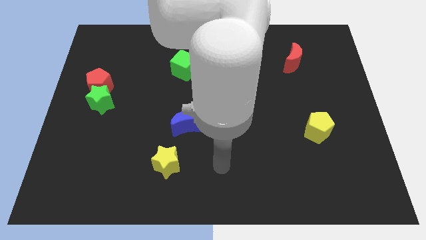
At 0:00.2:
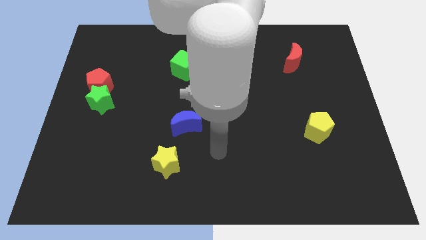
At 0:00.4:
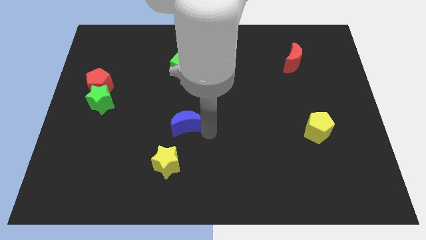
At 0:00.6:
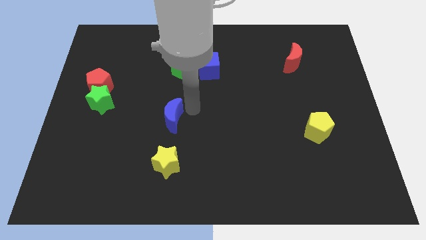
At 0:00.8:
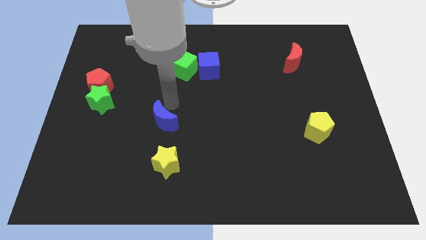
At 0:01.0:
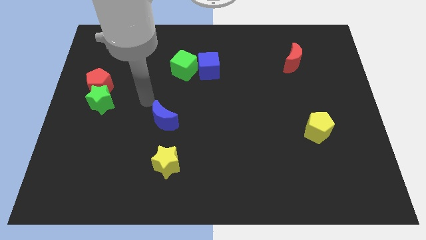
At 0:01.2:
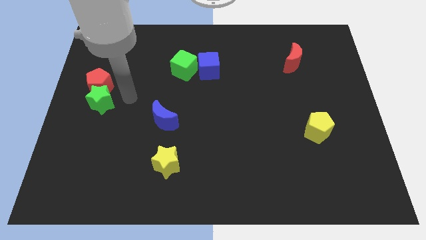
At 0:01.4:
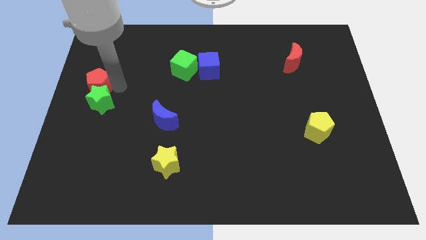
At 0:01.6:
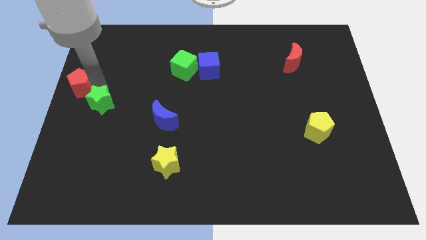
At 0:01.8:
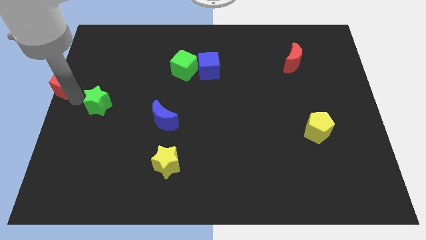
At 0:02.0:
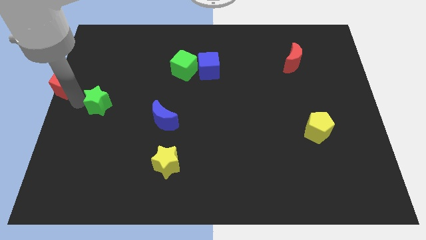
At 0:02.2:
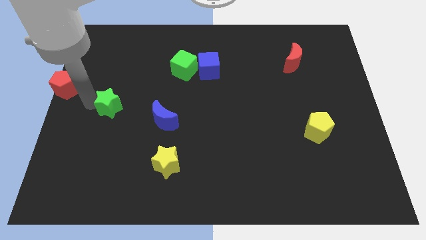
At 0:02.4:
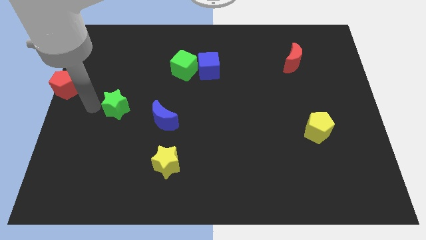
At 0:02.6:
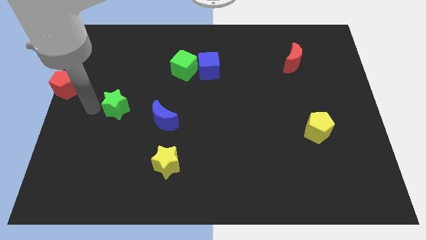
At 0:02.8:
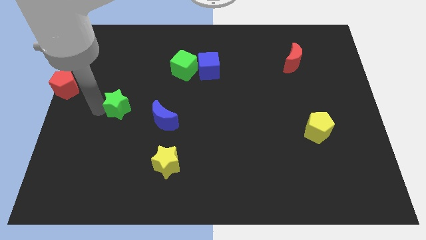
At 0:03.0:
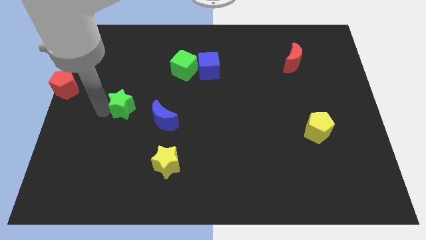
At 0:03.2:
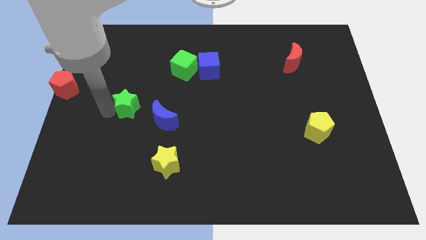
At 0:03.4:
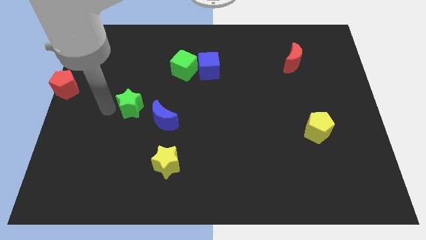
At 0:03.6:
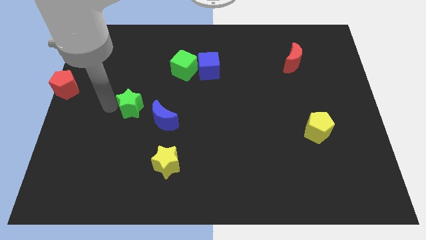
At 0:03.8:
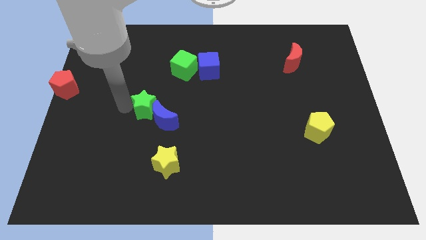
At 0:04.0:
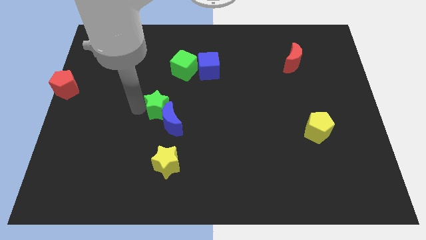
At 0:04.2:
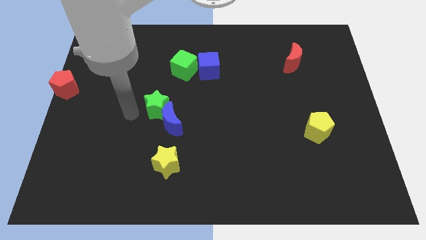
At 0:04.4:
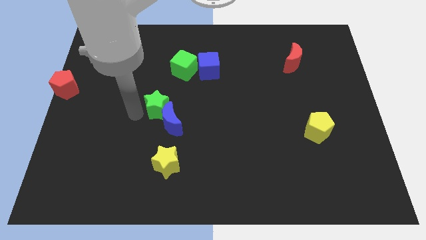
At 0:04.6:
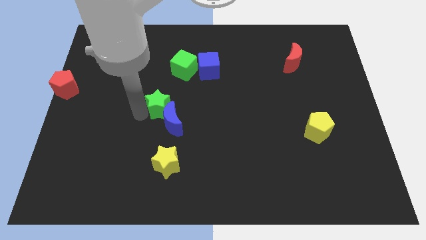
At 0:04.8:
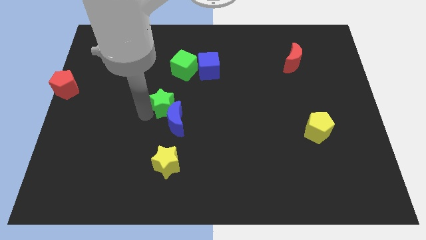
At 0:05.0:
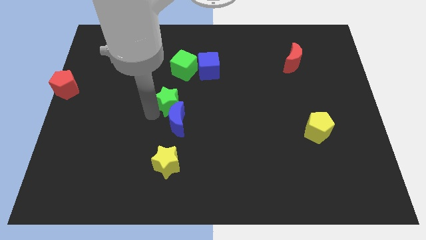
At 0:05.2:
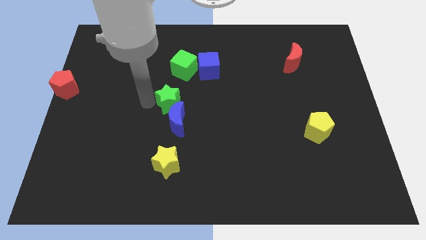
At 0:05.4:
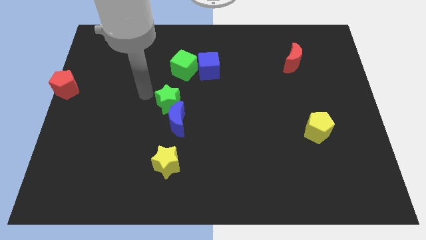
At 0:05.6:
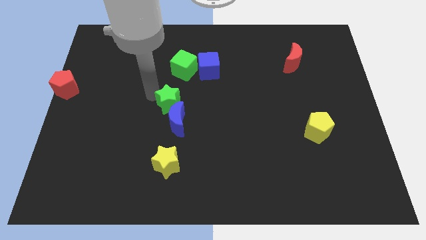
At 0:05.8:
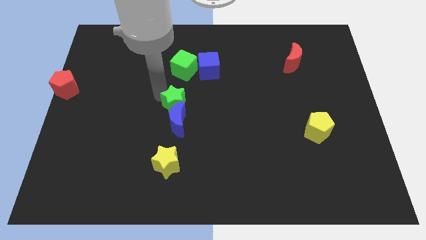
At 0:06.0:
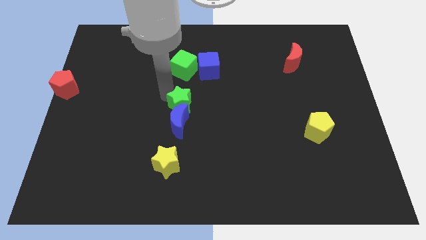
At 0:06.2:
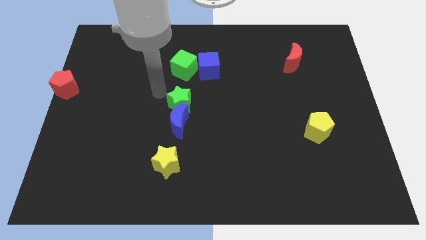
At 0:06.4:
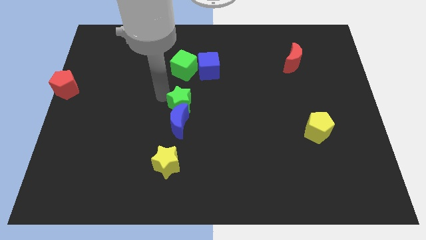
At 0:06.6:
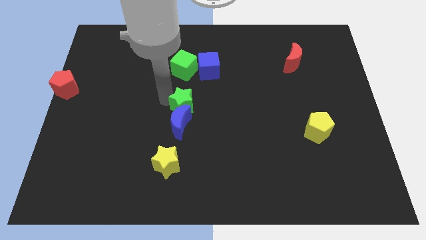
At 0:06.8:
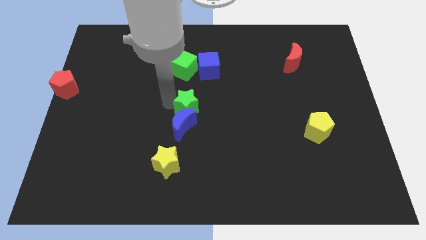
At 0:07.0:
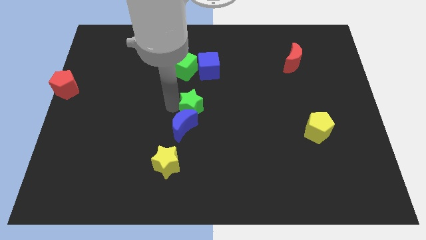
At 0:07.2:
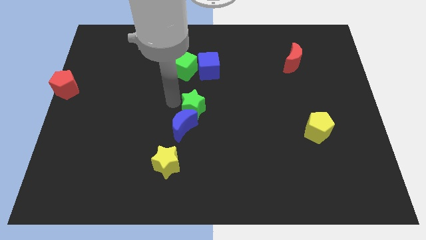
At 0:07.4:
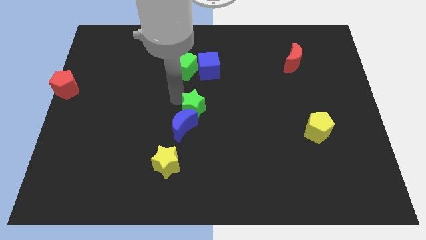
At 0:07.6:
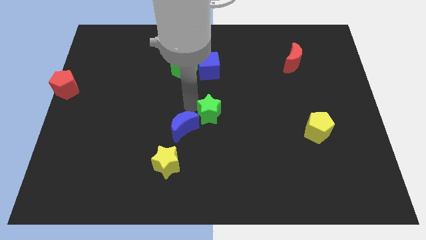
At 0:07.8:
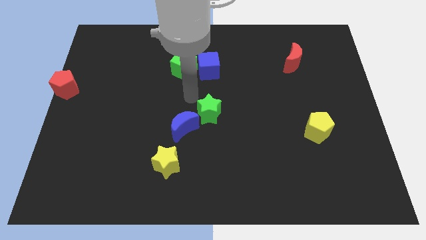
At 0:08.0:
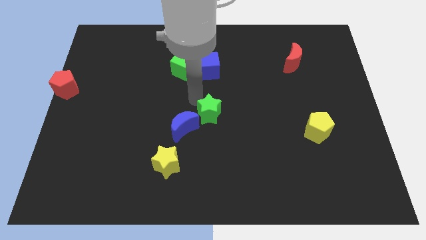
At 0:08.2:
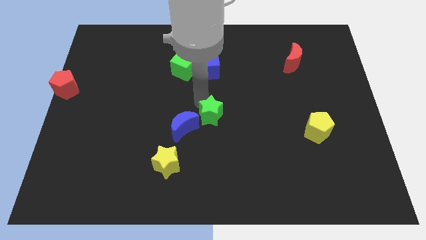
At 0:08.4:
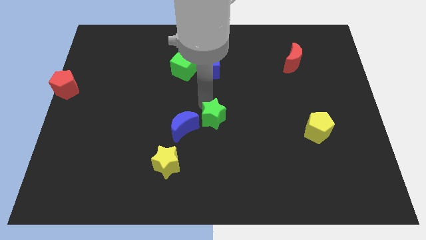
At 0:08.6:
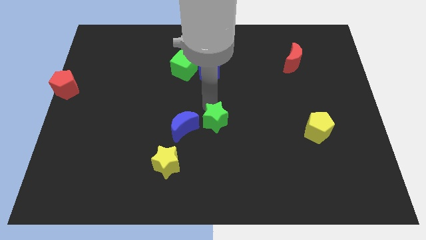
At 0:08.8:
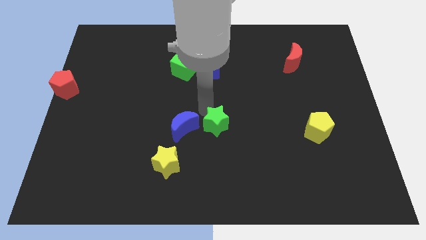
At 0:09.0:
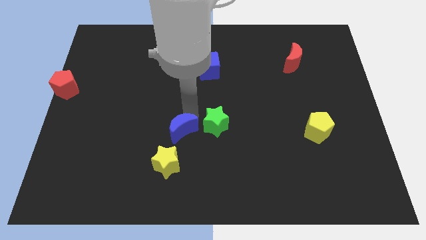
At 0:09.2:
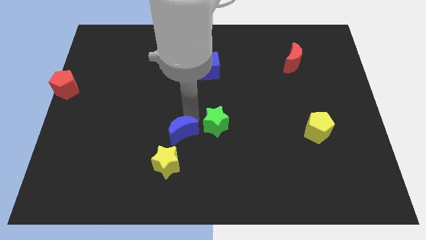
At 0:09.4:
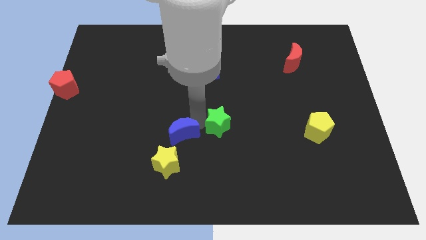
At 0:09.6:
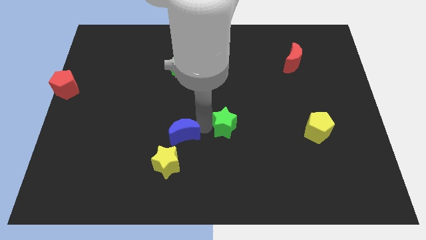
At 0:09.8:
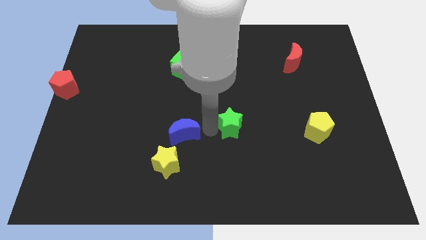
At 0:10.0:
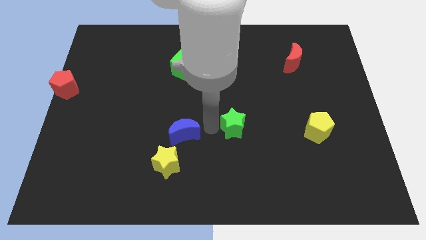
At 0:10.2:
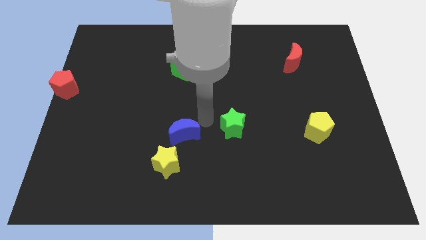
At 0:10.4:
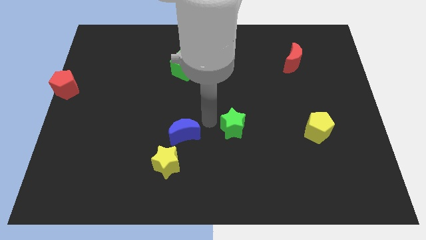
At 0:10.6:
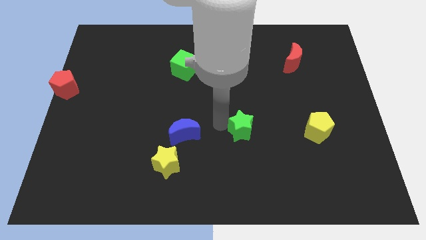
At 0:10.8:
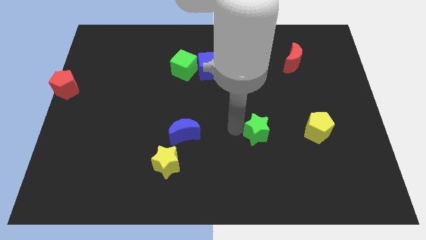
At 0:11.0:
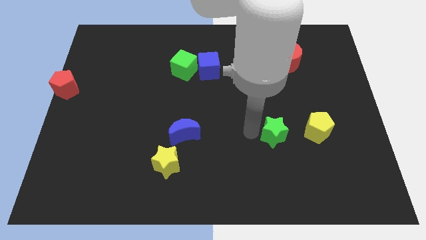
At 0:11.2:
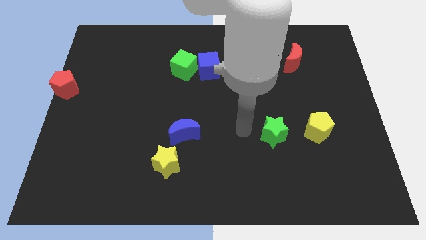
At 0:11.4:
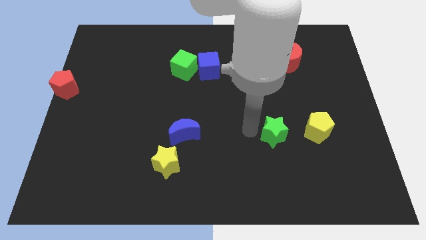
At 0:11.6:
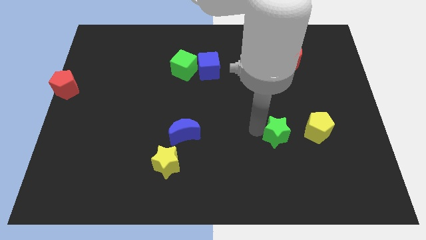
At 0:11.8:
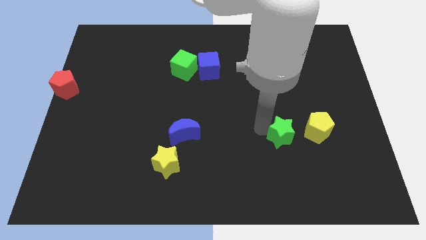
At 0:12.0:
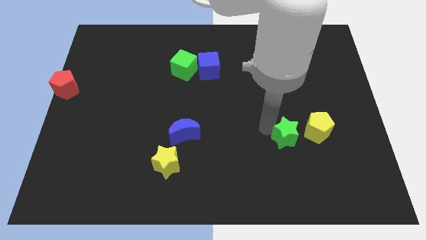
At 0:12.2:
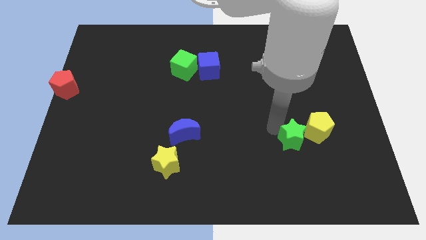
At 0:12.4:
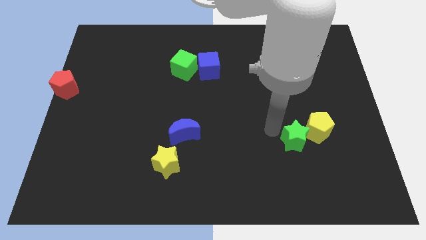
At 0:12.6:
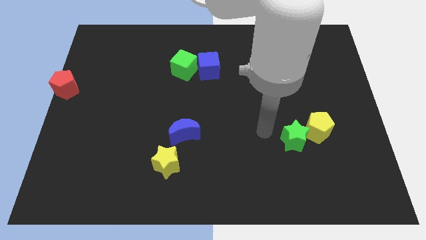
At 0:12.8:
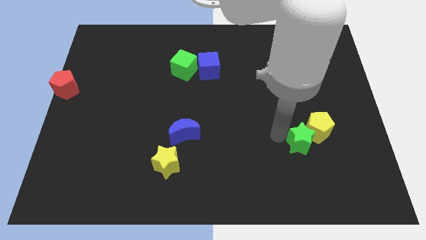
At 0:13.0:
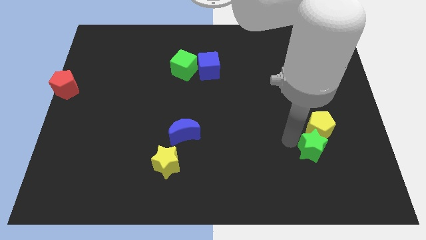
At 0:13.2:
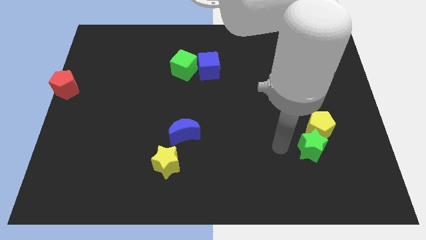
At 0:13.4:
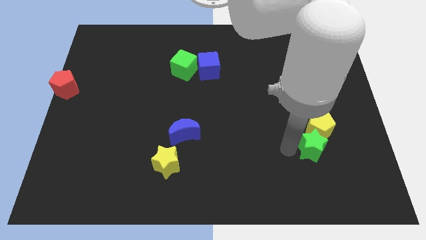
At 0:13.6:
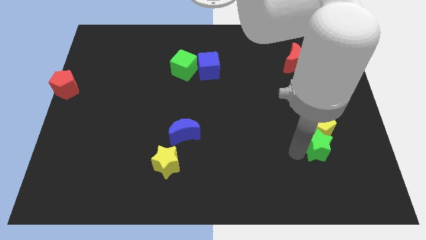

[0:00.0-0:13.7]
move the green star to the bottom right side of the yellow pentagon

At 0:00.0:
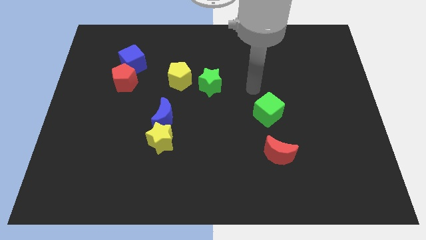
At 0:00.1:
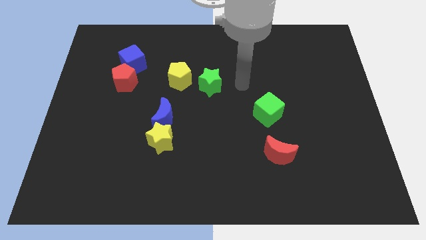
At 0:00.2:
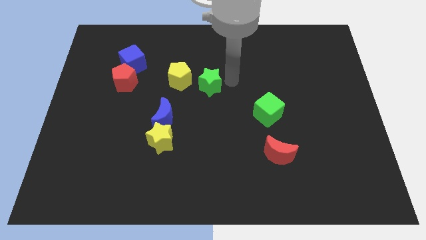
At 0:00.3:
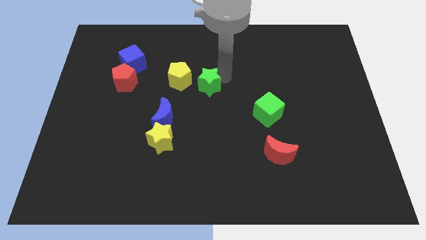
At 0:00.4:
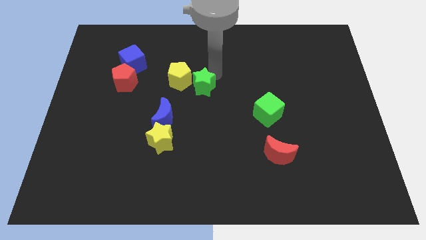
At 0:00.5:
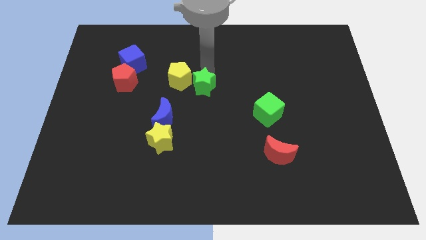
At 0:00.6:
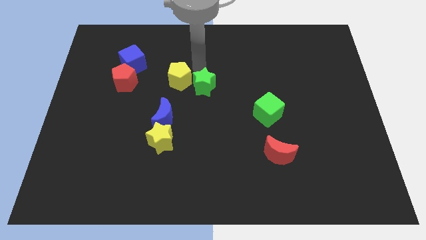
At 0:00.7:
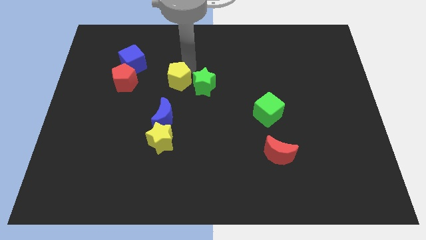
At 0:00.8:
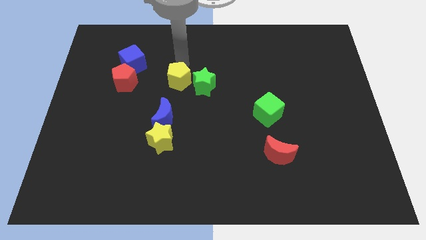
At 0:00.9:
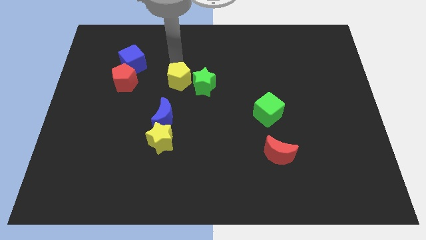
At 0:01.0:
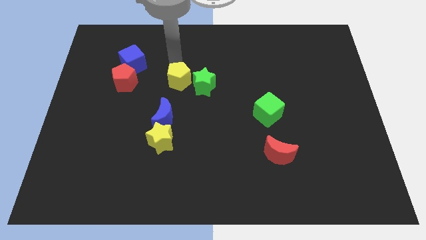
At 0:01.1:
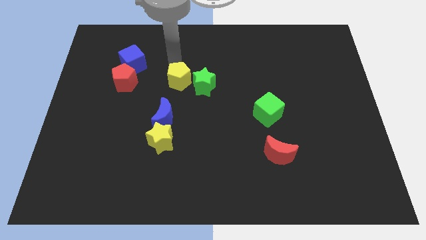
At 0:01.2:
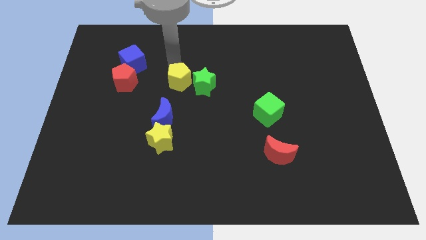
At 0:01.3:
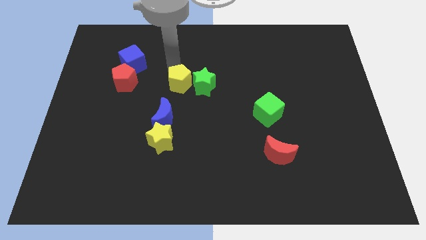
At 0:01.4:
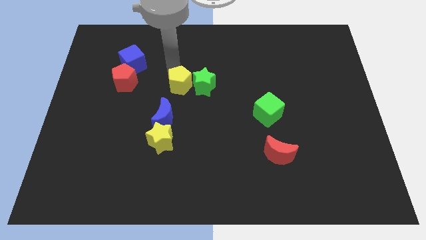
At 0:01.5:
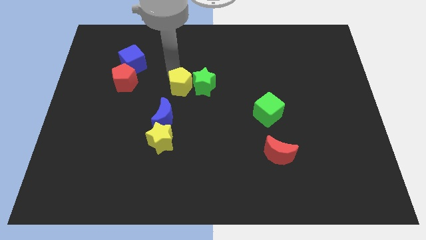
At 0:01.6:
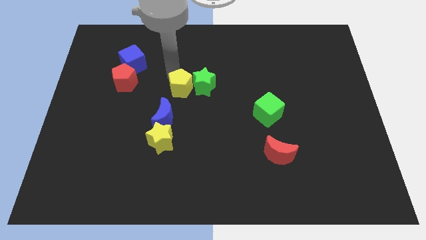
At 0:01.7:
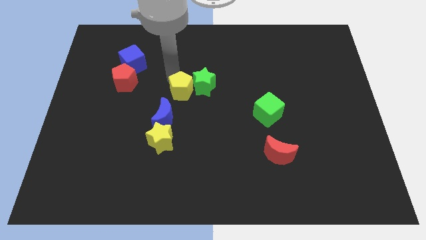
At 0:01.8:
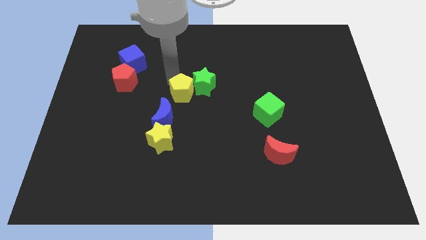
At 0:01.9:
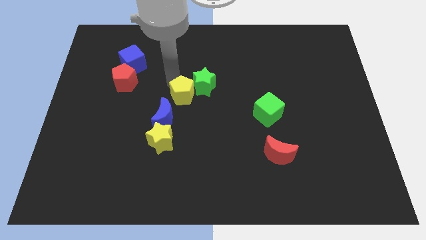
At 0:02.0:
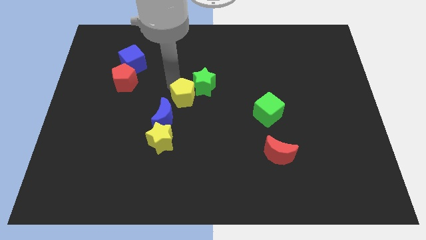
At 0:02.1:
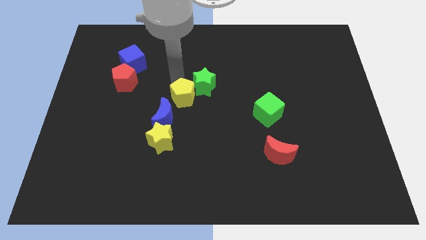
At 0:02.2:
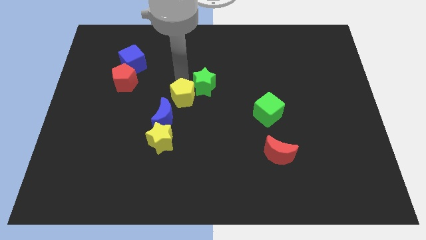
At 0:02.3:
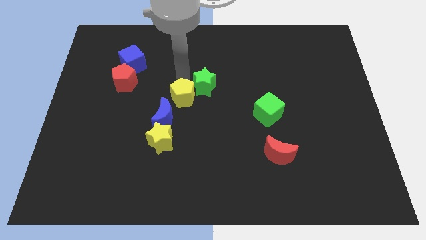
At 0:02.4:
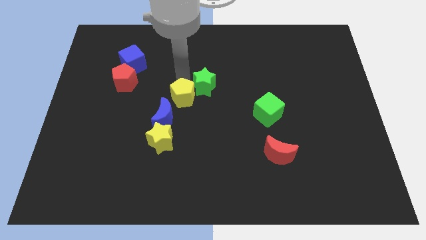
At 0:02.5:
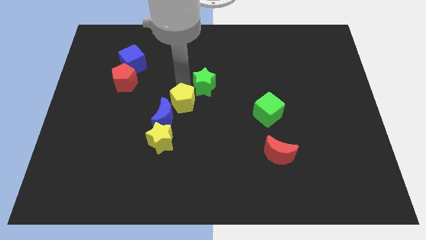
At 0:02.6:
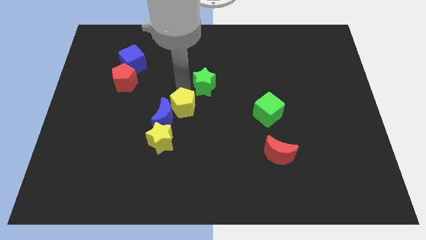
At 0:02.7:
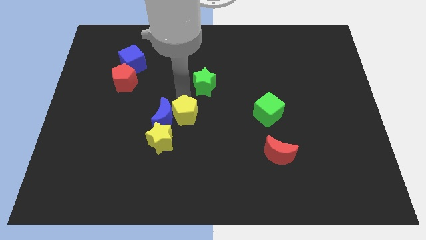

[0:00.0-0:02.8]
slide the yellow pentagon to the bottom right side of the blue moon
